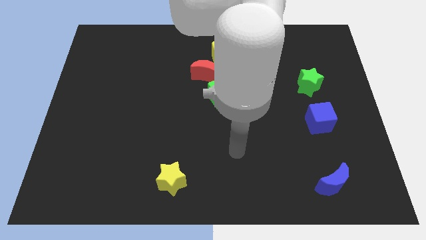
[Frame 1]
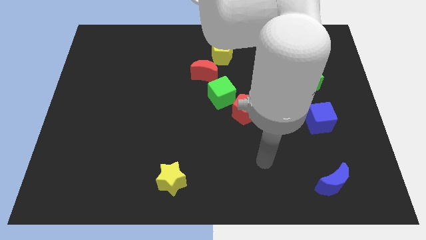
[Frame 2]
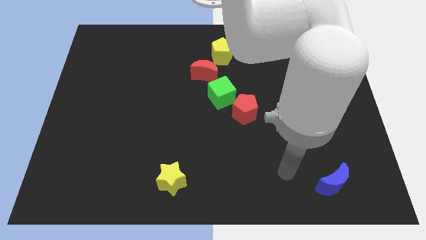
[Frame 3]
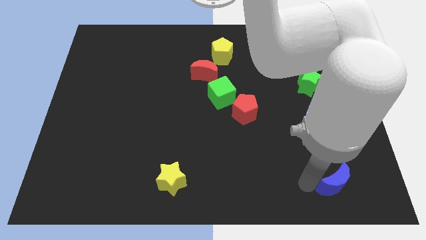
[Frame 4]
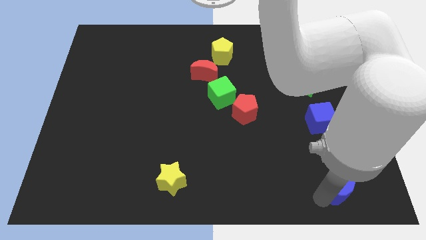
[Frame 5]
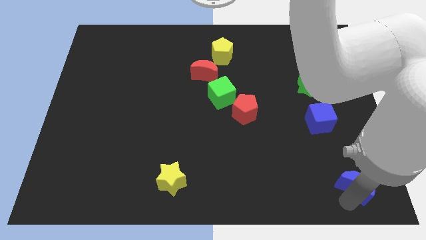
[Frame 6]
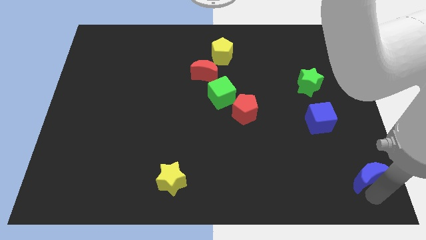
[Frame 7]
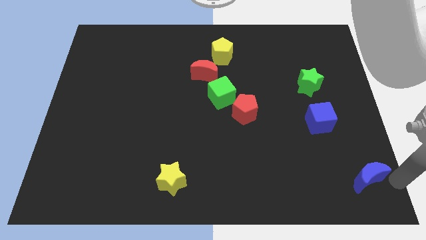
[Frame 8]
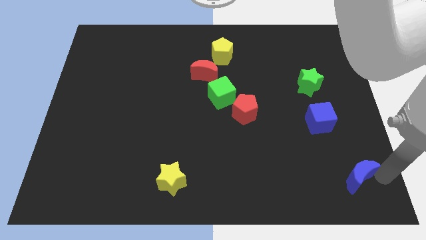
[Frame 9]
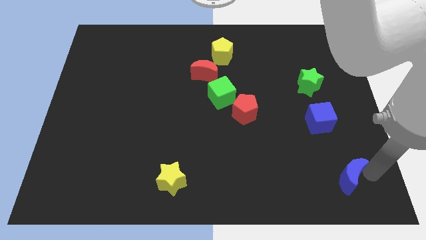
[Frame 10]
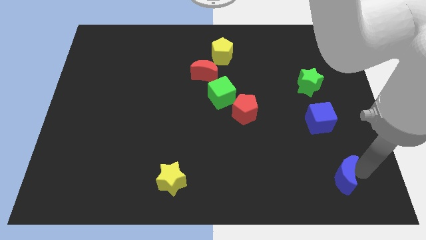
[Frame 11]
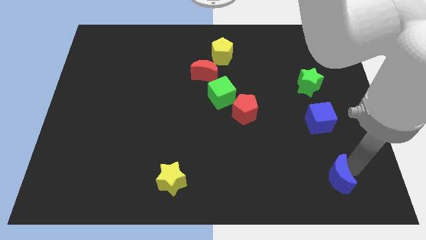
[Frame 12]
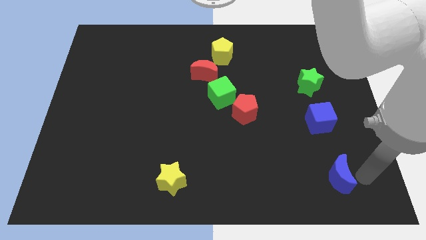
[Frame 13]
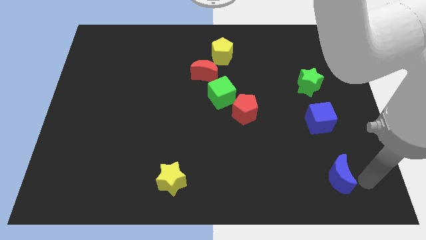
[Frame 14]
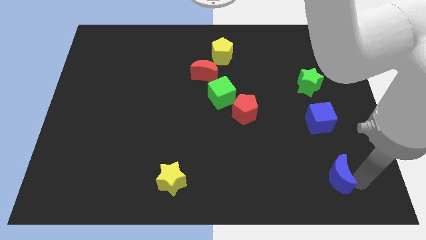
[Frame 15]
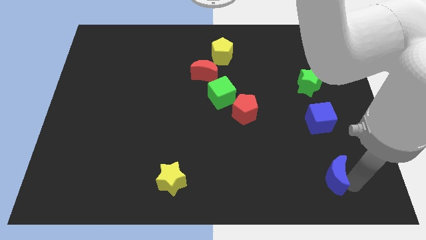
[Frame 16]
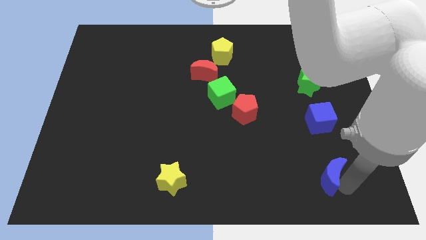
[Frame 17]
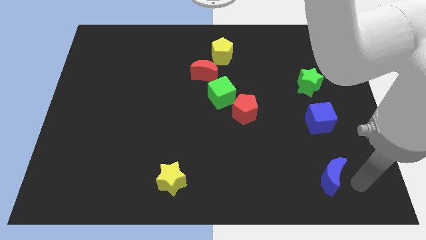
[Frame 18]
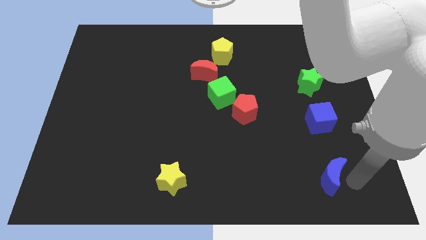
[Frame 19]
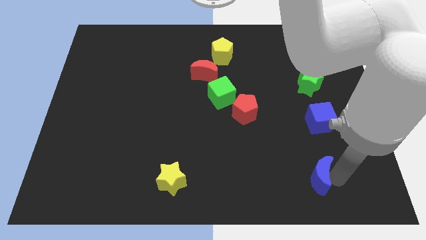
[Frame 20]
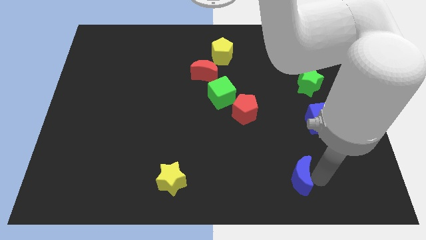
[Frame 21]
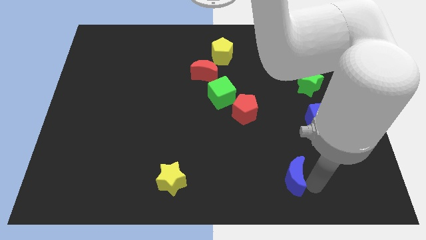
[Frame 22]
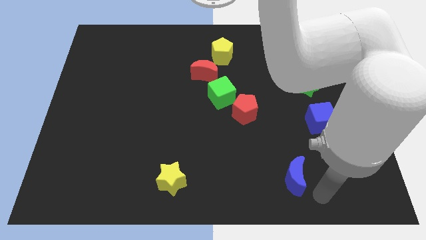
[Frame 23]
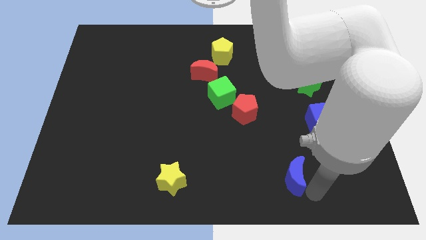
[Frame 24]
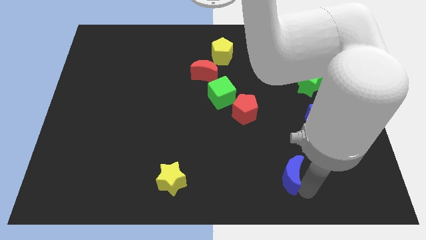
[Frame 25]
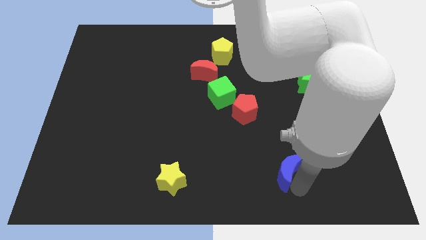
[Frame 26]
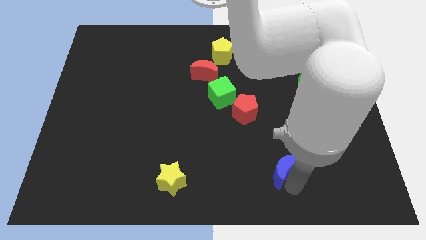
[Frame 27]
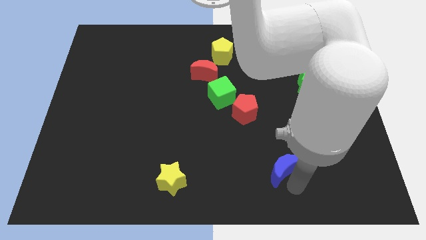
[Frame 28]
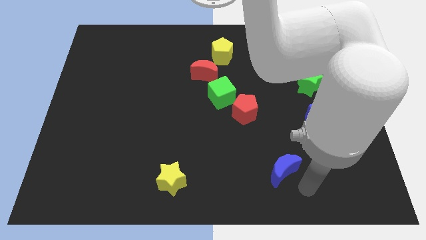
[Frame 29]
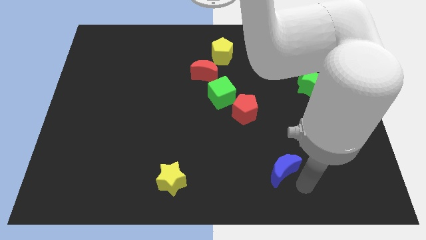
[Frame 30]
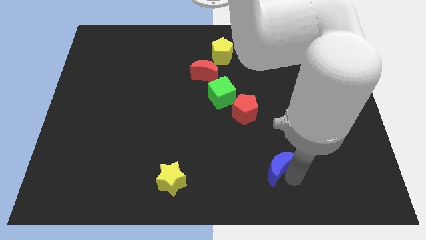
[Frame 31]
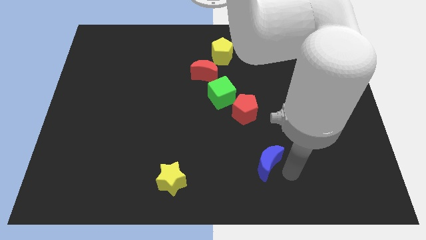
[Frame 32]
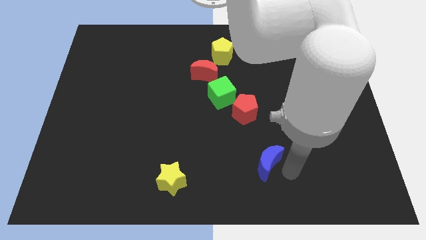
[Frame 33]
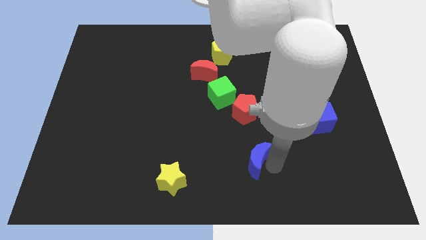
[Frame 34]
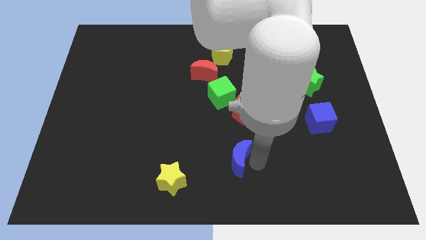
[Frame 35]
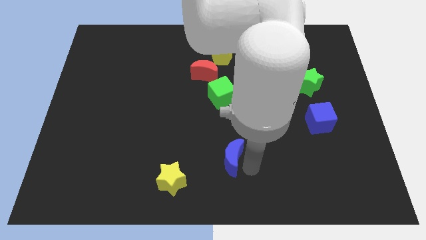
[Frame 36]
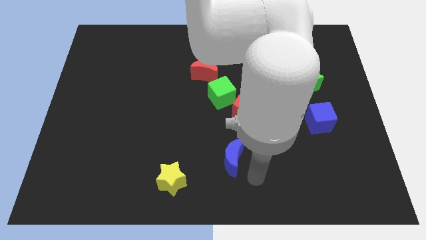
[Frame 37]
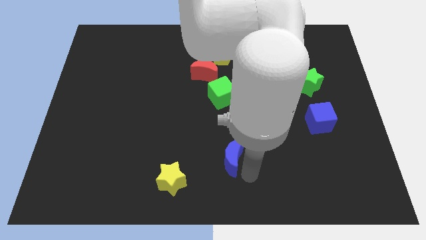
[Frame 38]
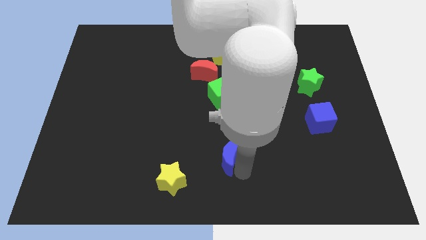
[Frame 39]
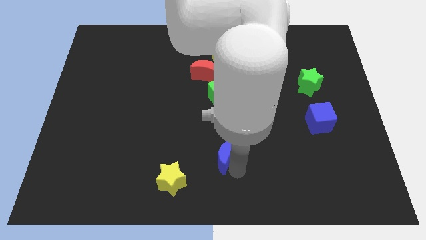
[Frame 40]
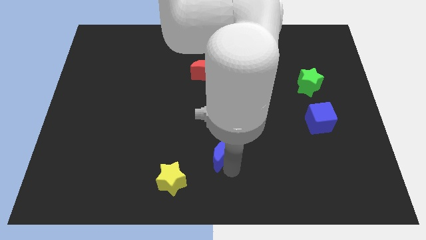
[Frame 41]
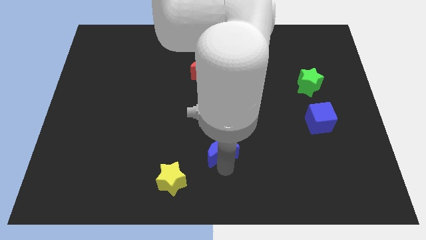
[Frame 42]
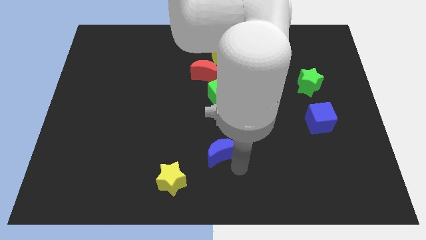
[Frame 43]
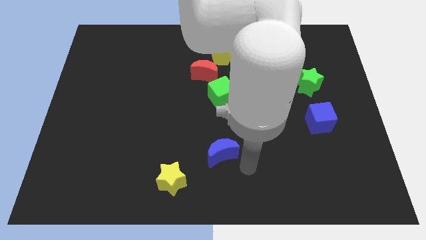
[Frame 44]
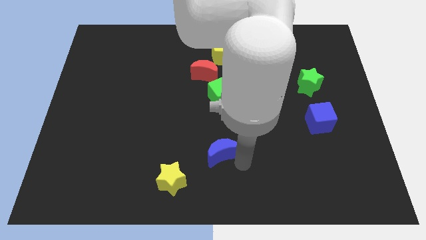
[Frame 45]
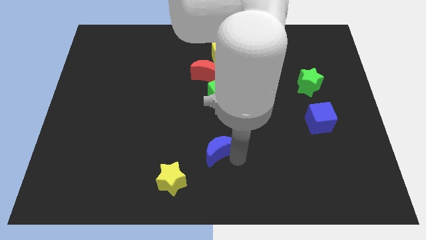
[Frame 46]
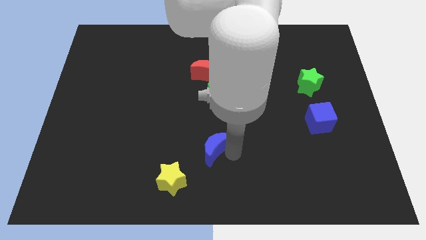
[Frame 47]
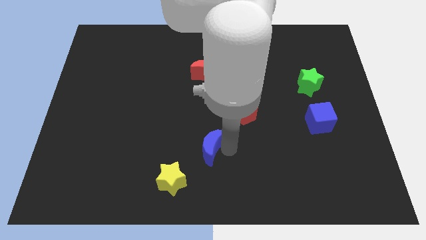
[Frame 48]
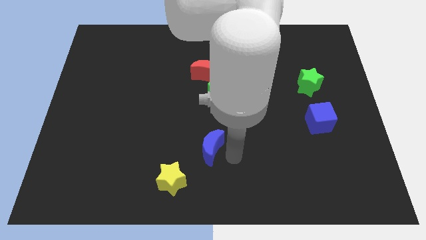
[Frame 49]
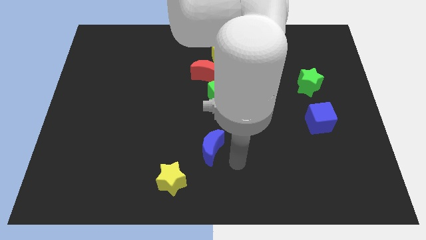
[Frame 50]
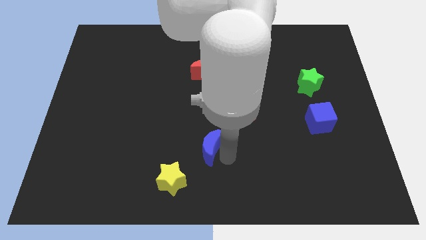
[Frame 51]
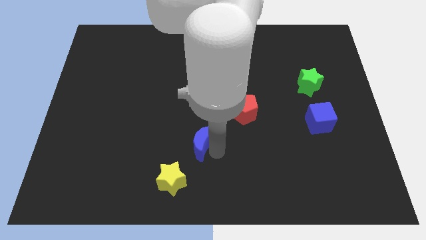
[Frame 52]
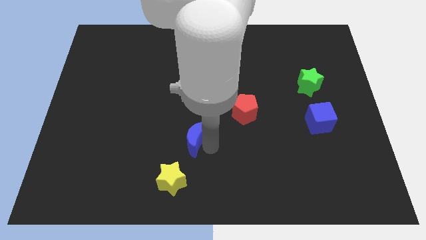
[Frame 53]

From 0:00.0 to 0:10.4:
slide the blue moon to the top of the yellow star

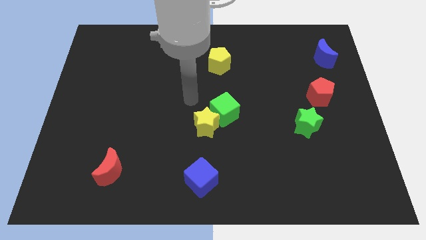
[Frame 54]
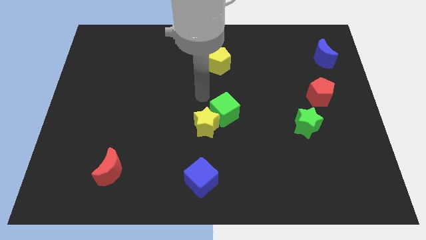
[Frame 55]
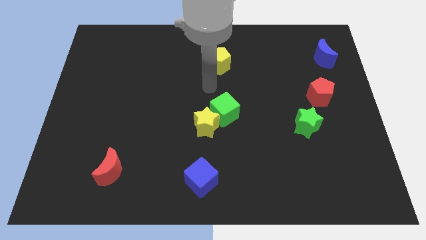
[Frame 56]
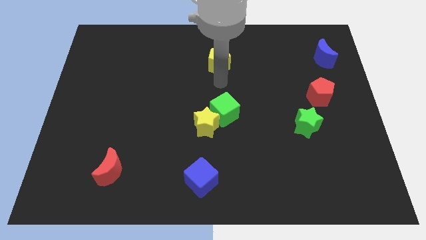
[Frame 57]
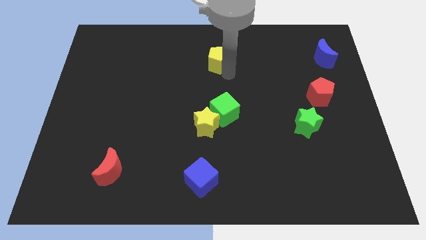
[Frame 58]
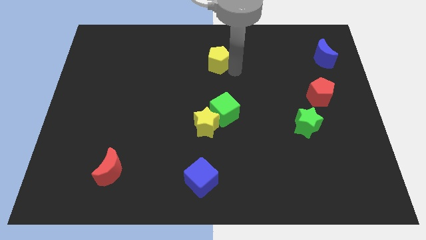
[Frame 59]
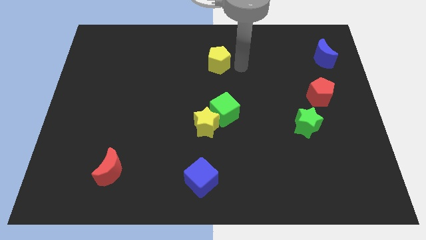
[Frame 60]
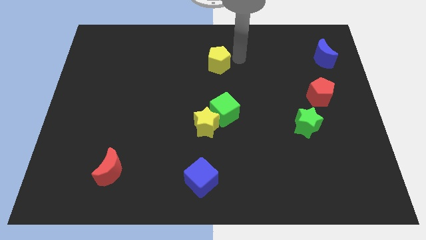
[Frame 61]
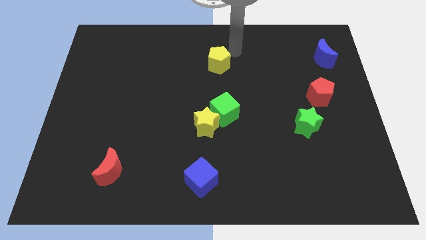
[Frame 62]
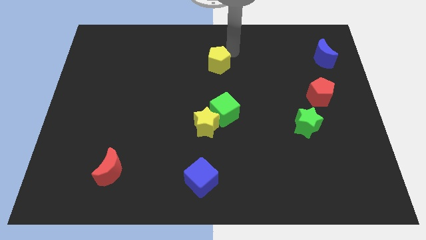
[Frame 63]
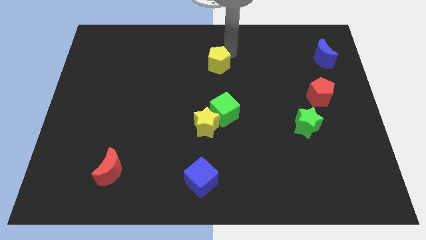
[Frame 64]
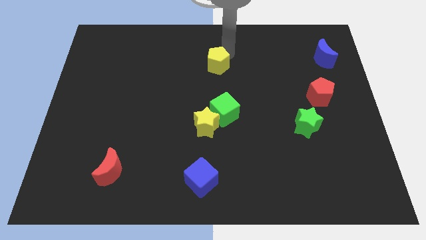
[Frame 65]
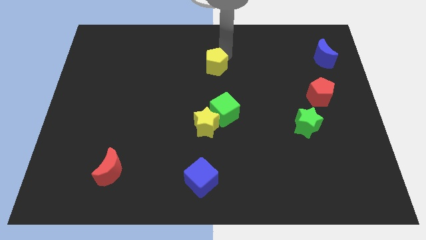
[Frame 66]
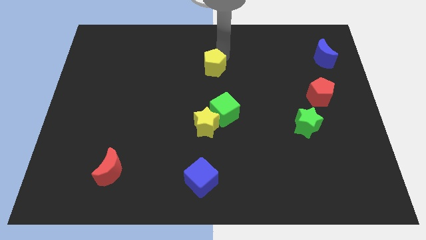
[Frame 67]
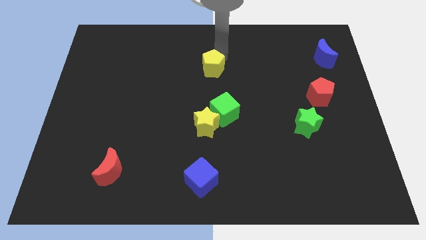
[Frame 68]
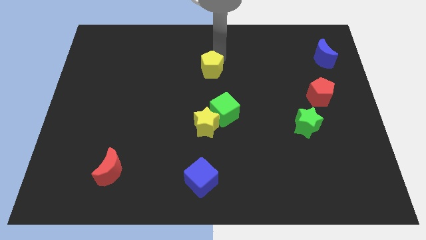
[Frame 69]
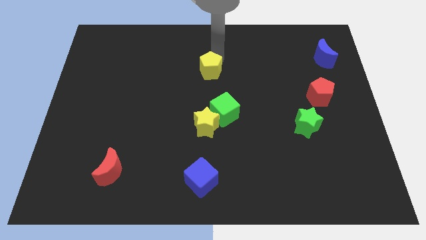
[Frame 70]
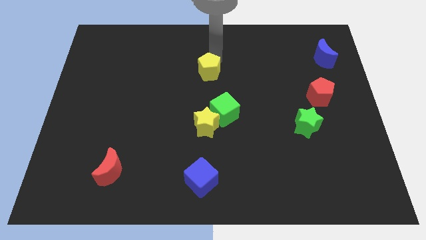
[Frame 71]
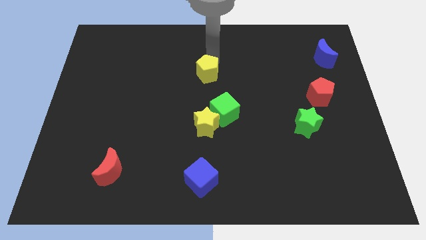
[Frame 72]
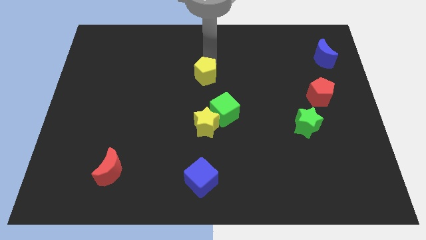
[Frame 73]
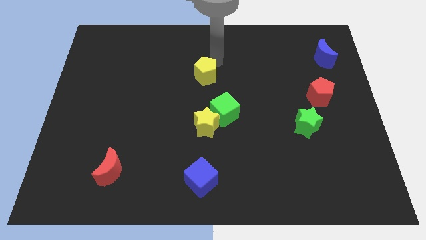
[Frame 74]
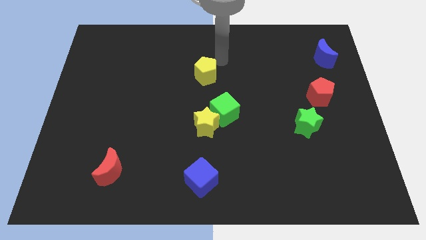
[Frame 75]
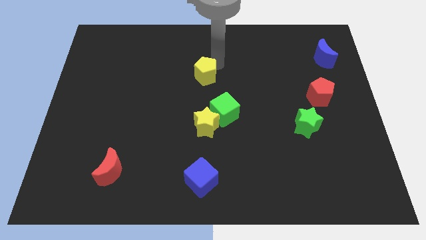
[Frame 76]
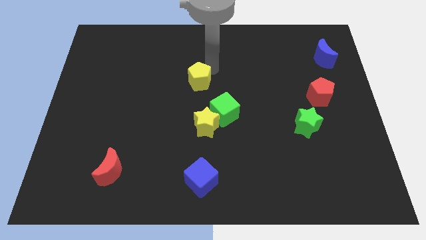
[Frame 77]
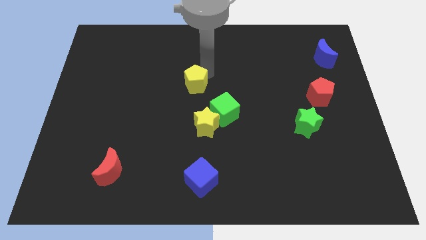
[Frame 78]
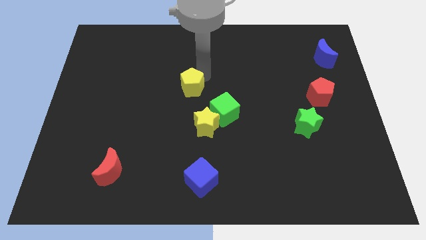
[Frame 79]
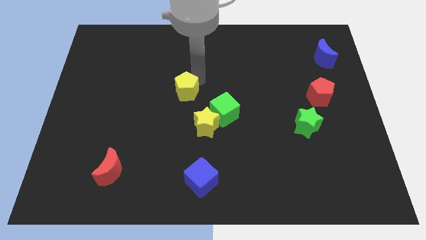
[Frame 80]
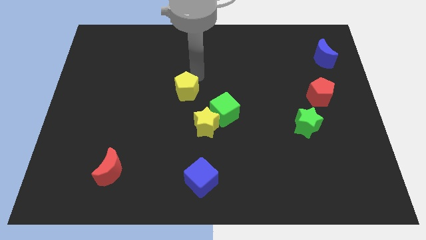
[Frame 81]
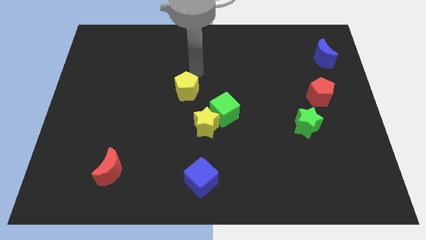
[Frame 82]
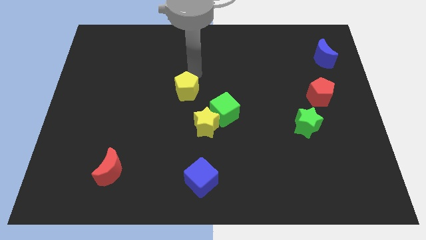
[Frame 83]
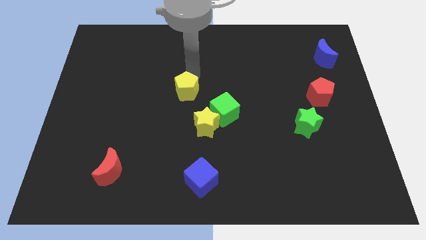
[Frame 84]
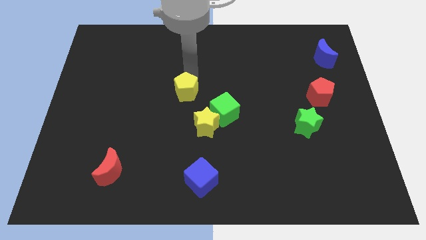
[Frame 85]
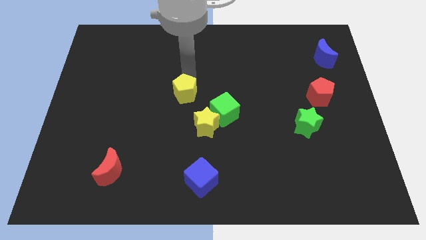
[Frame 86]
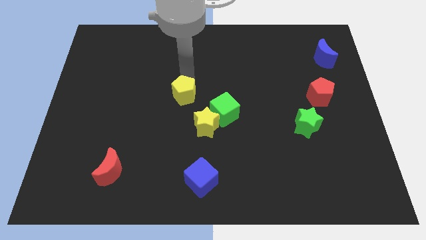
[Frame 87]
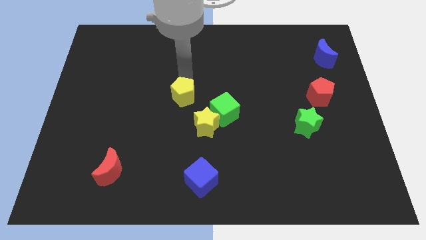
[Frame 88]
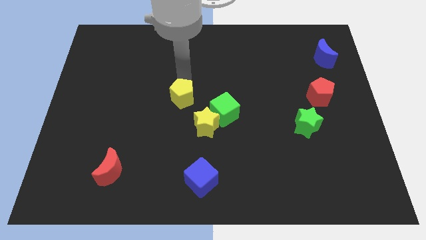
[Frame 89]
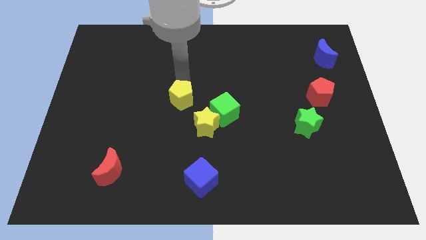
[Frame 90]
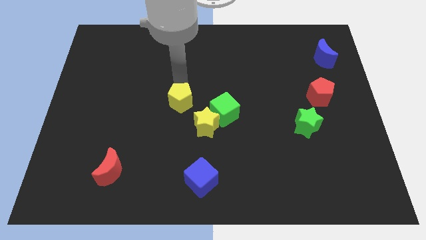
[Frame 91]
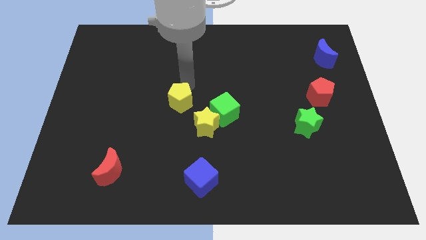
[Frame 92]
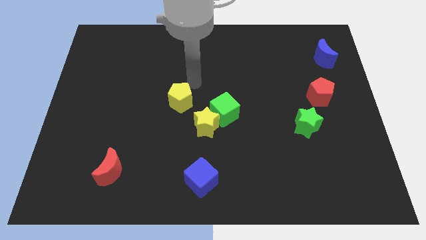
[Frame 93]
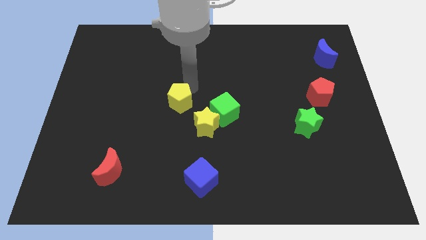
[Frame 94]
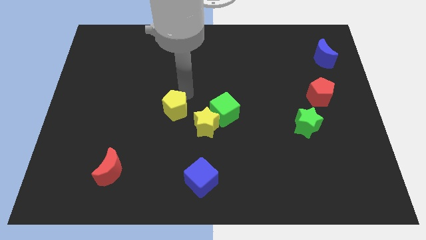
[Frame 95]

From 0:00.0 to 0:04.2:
put the yellow pentagon to the left of the yellow star
